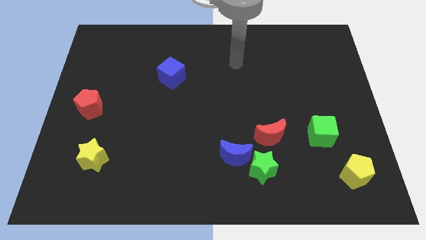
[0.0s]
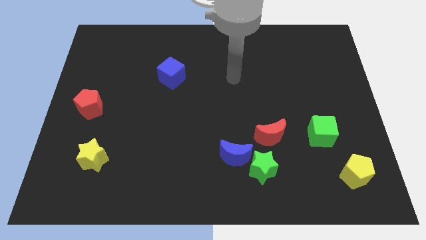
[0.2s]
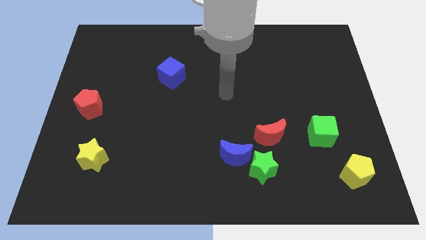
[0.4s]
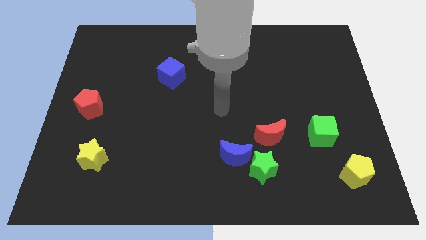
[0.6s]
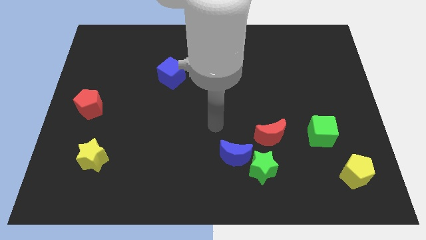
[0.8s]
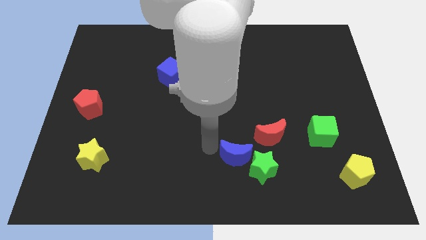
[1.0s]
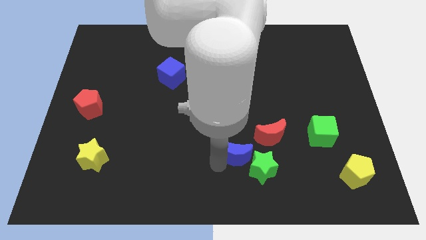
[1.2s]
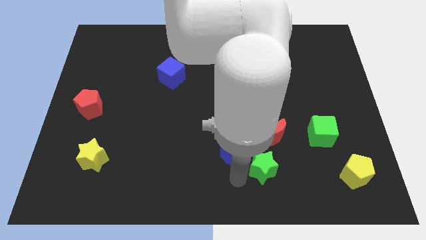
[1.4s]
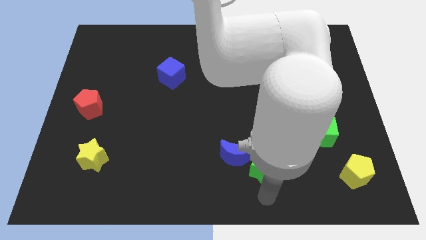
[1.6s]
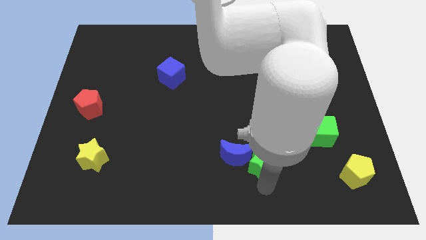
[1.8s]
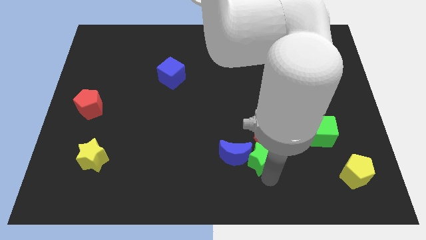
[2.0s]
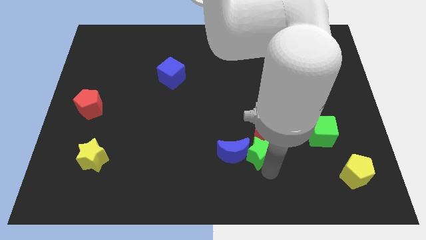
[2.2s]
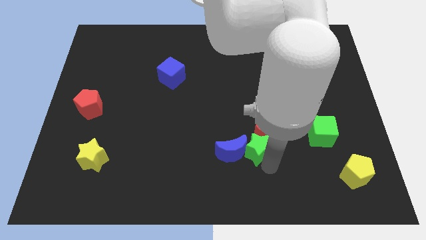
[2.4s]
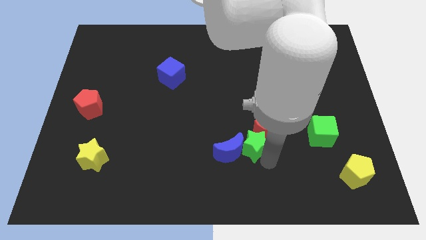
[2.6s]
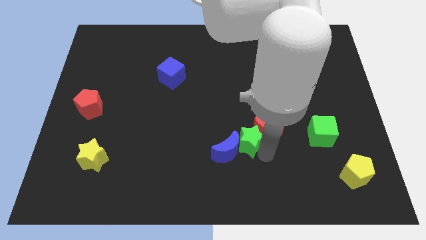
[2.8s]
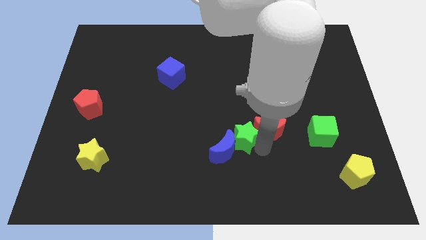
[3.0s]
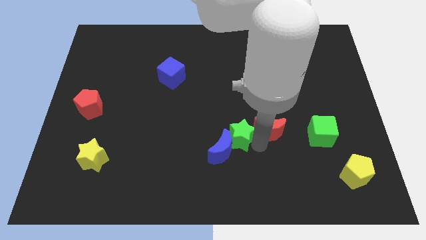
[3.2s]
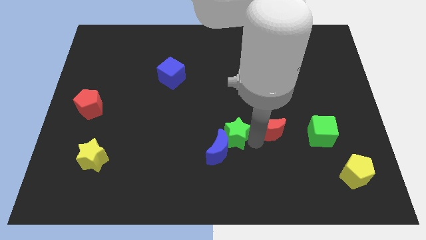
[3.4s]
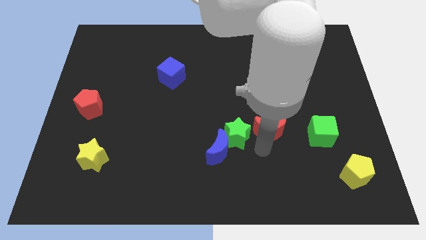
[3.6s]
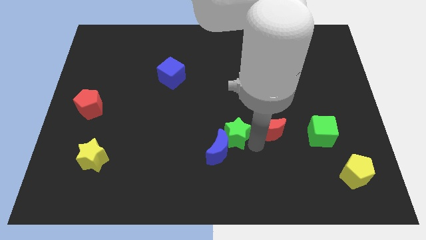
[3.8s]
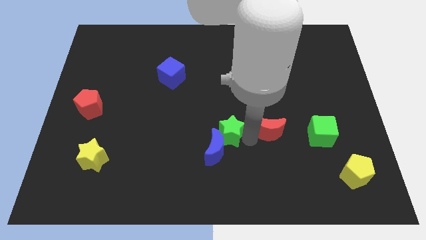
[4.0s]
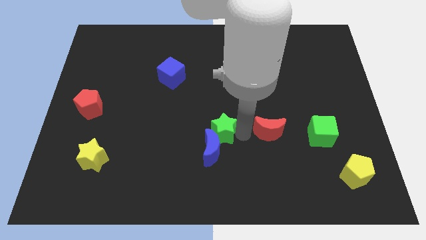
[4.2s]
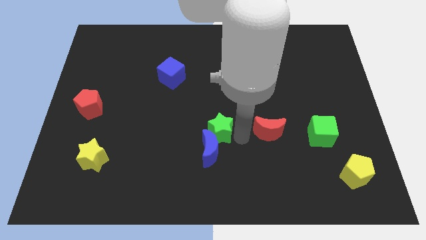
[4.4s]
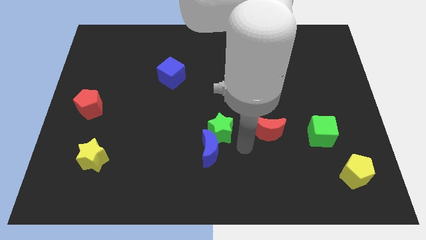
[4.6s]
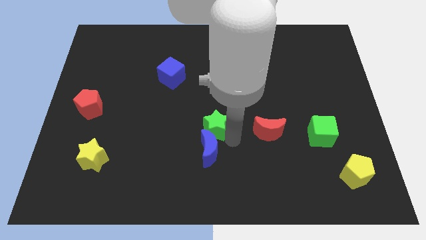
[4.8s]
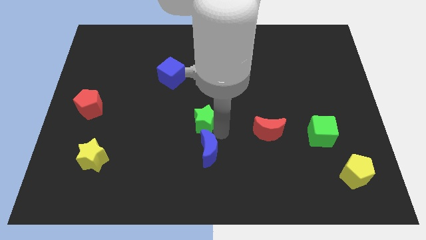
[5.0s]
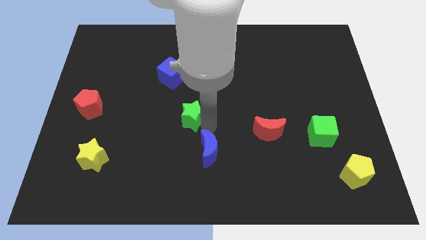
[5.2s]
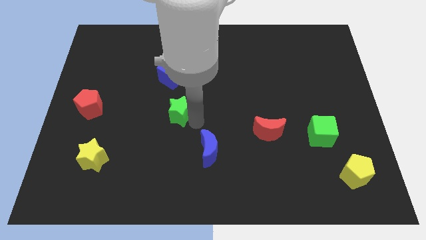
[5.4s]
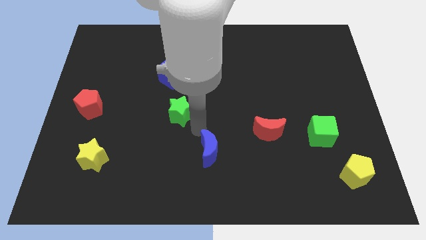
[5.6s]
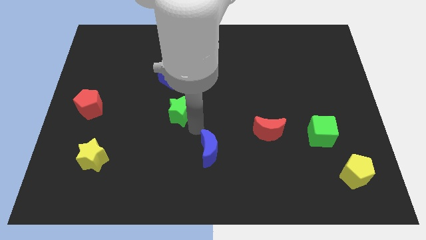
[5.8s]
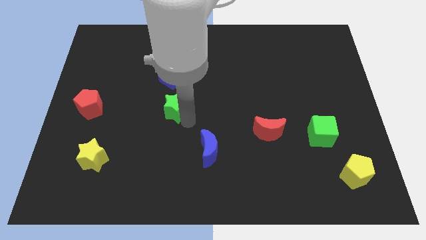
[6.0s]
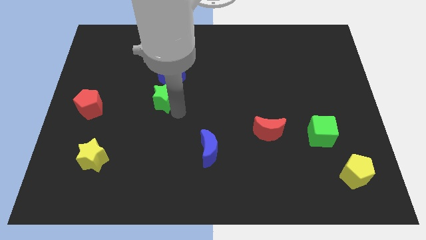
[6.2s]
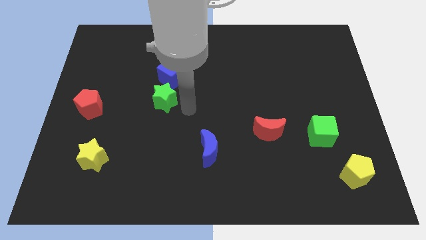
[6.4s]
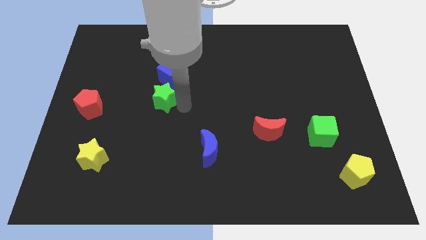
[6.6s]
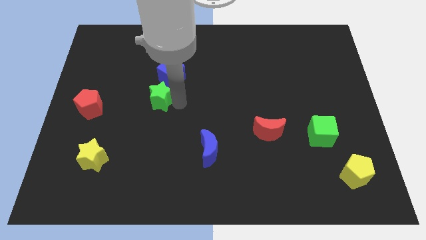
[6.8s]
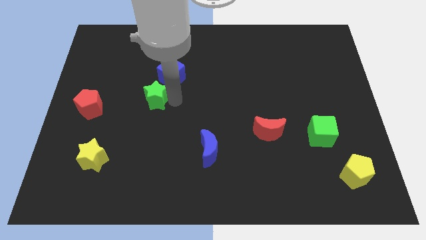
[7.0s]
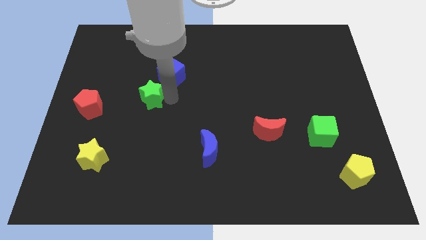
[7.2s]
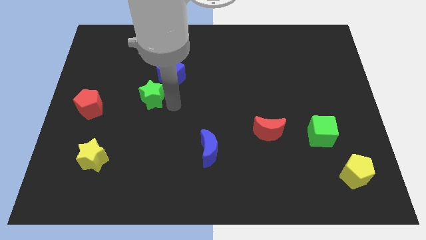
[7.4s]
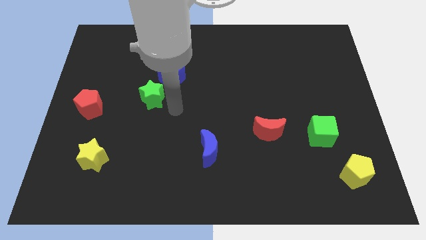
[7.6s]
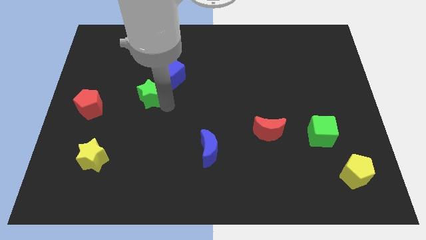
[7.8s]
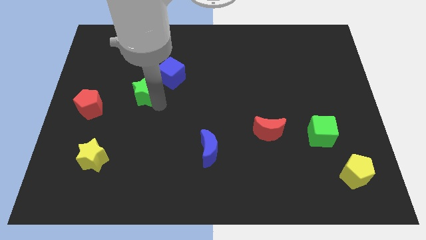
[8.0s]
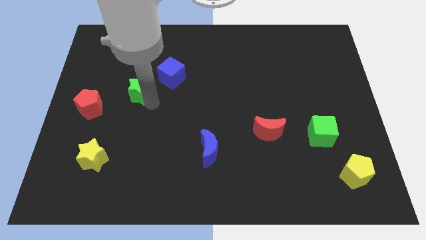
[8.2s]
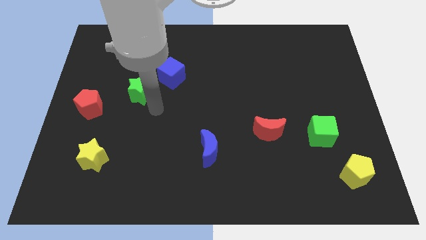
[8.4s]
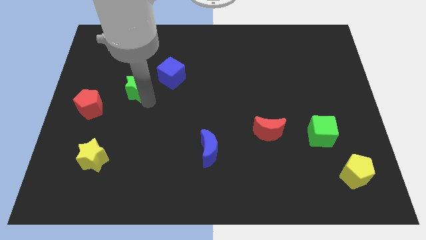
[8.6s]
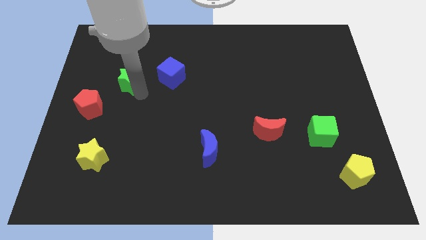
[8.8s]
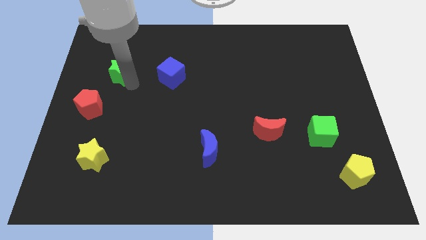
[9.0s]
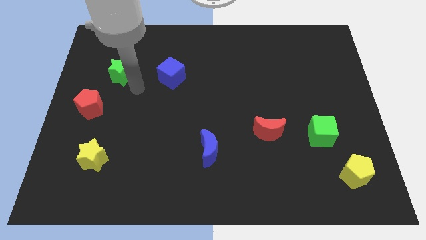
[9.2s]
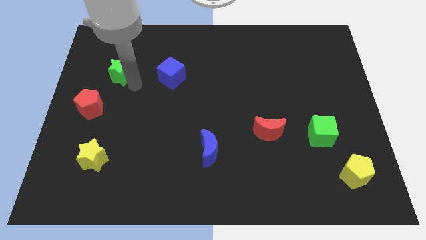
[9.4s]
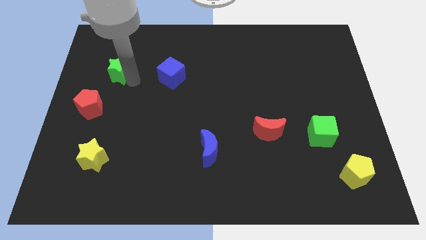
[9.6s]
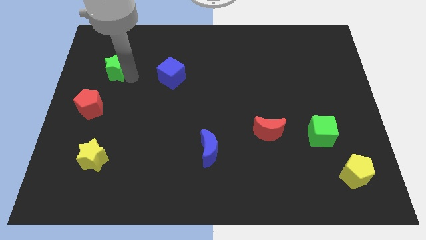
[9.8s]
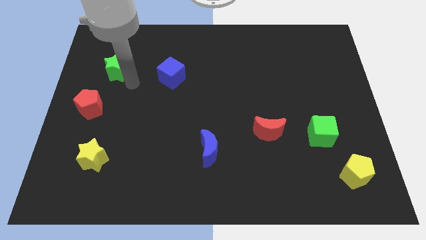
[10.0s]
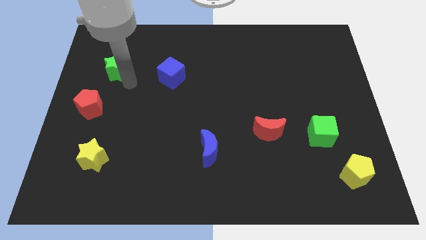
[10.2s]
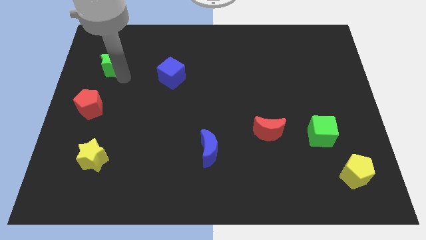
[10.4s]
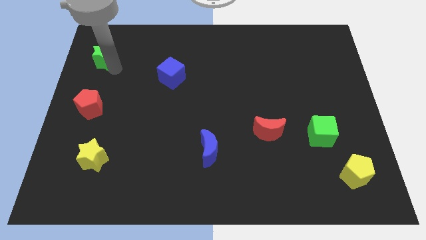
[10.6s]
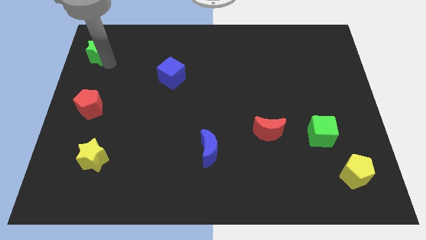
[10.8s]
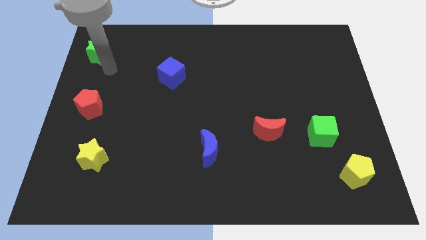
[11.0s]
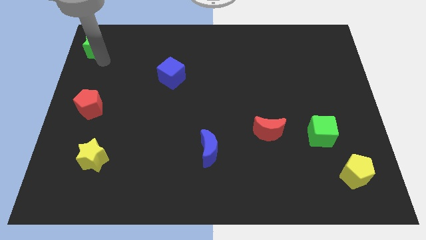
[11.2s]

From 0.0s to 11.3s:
move the green star to the upper left corner

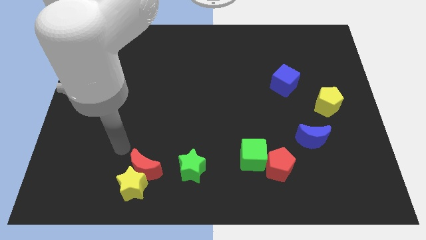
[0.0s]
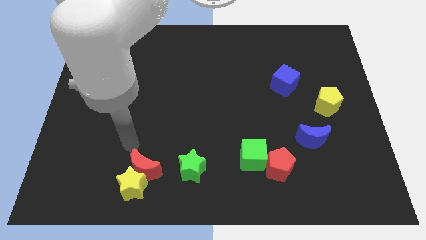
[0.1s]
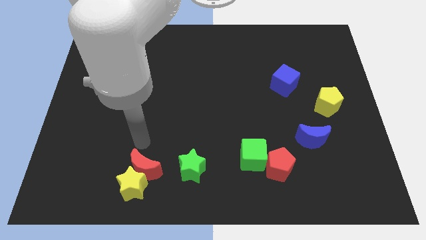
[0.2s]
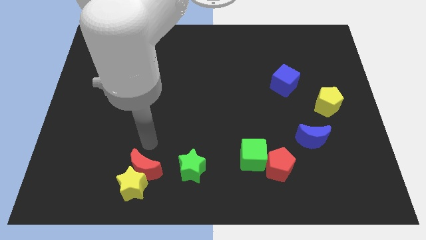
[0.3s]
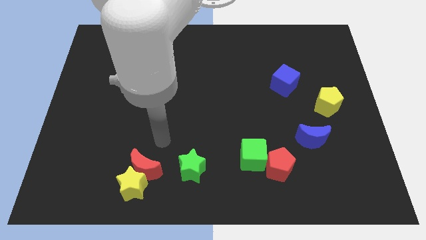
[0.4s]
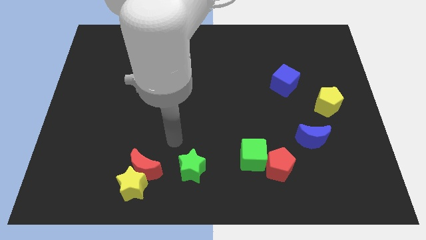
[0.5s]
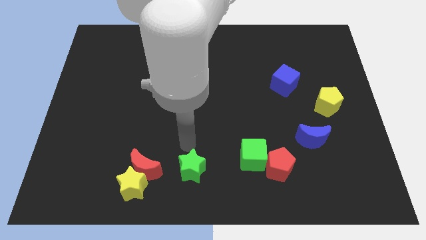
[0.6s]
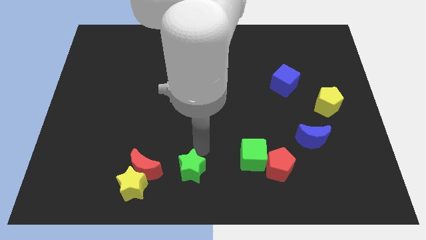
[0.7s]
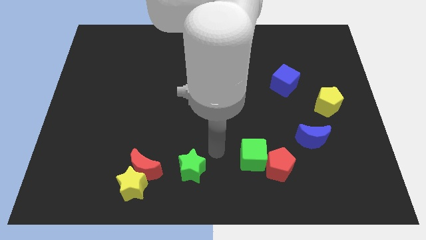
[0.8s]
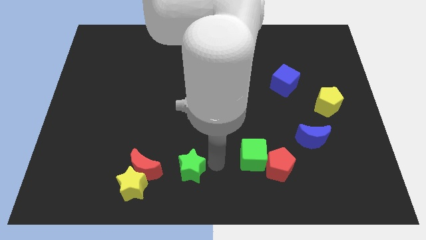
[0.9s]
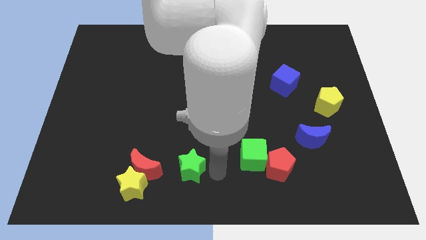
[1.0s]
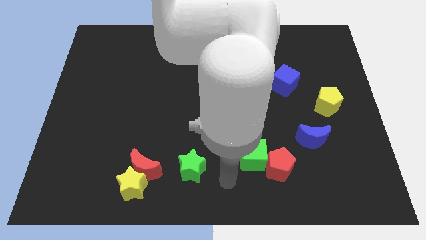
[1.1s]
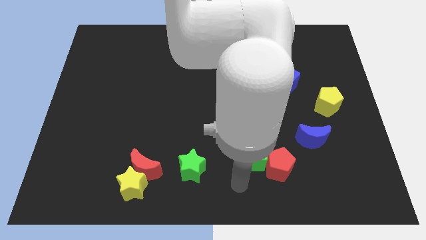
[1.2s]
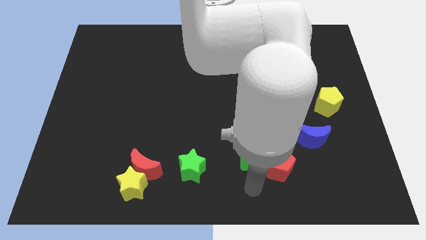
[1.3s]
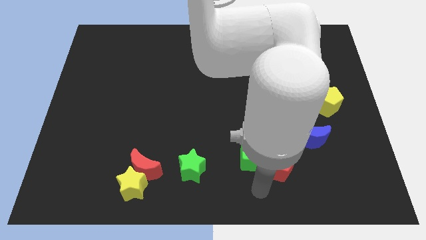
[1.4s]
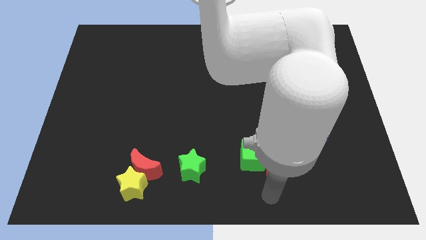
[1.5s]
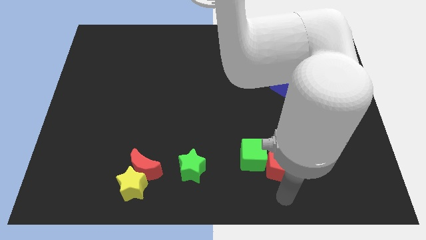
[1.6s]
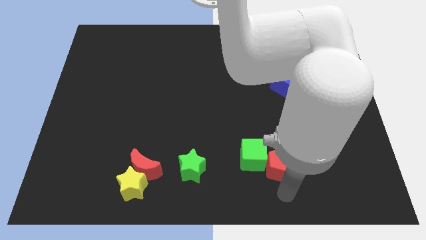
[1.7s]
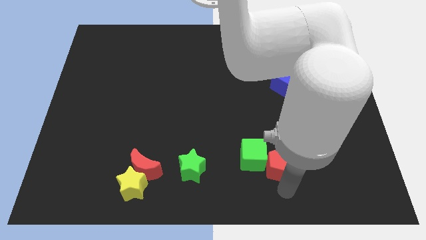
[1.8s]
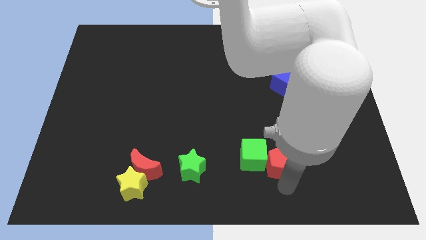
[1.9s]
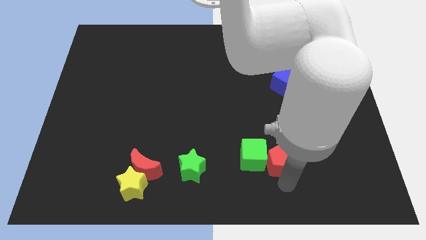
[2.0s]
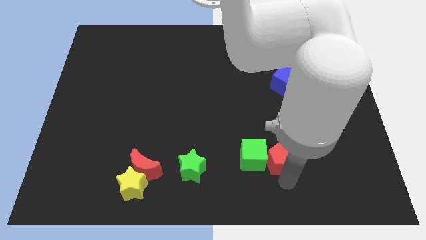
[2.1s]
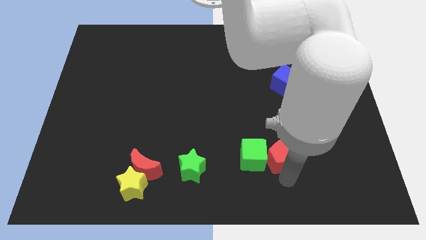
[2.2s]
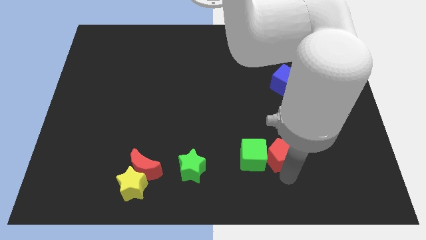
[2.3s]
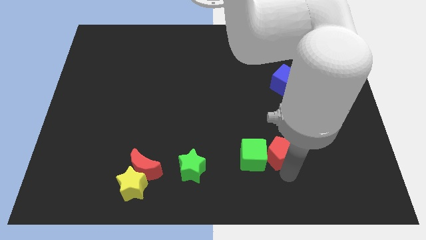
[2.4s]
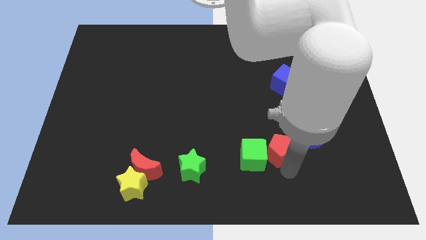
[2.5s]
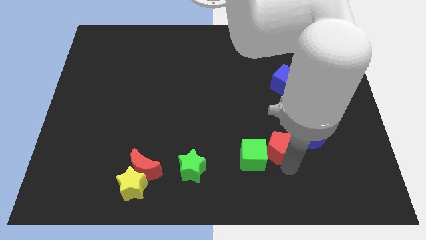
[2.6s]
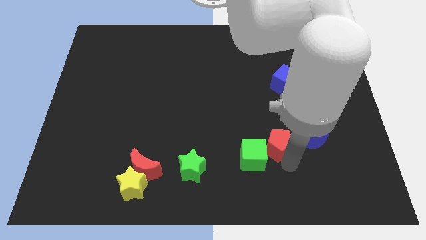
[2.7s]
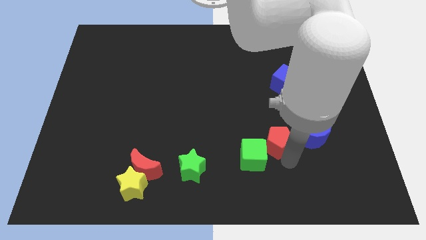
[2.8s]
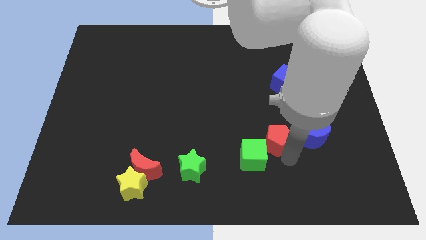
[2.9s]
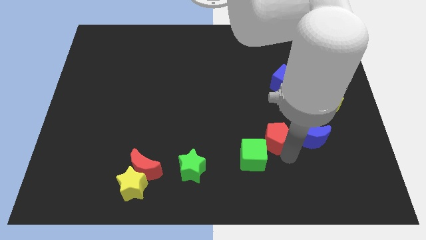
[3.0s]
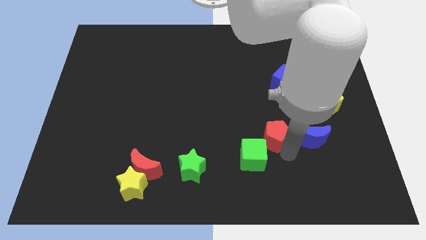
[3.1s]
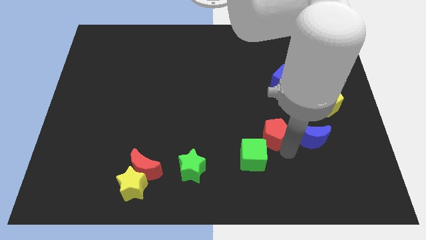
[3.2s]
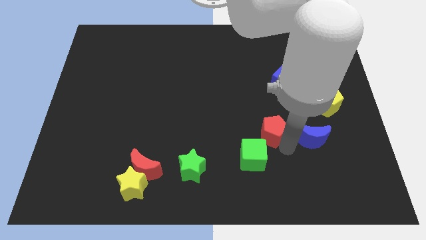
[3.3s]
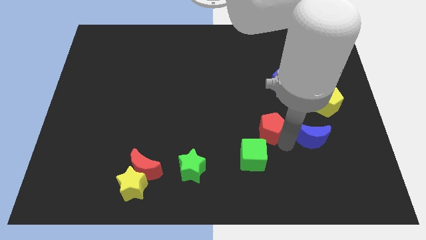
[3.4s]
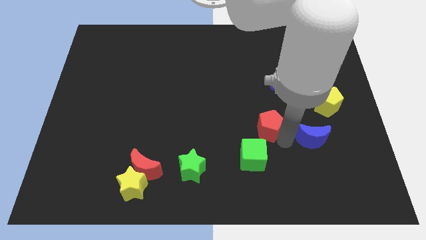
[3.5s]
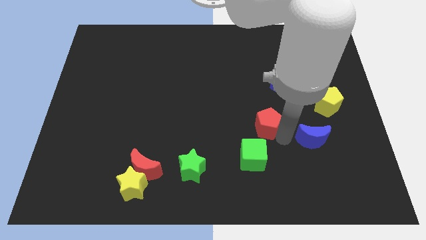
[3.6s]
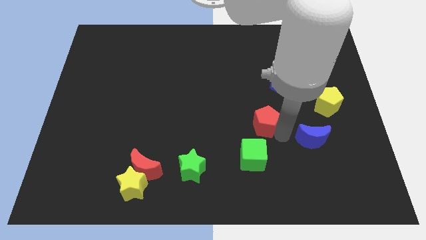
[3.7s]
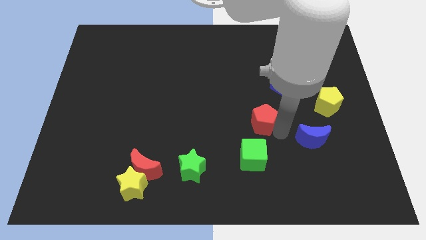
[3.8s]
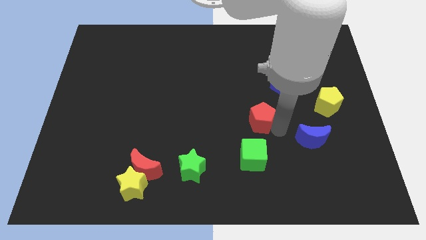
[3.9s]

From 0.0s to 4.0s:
slide the red pentagon to the center
